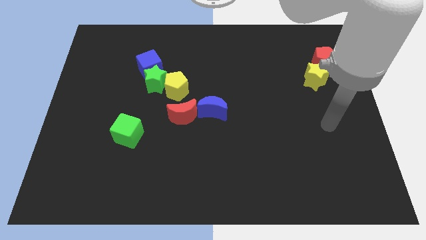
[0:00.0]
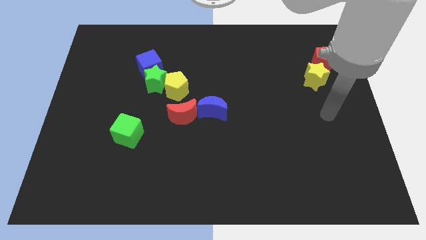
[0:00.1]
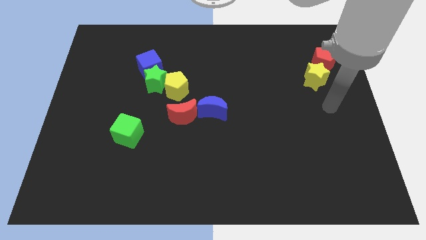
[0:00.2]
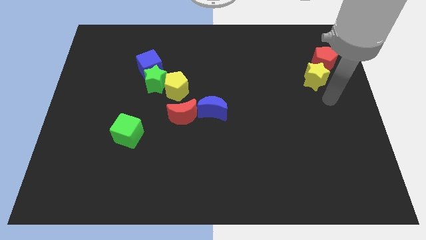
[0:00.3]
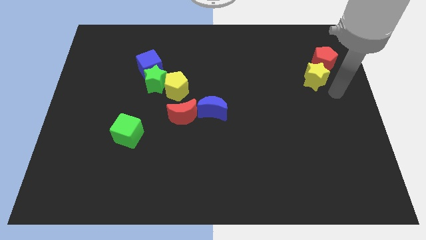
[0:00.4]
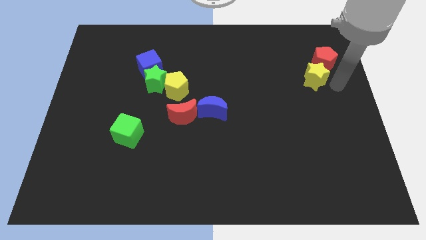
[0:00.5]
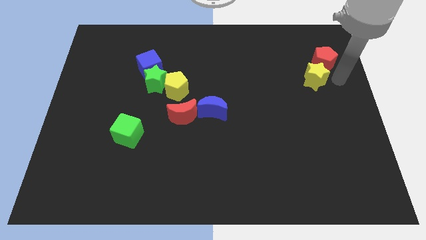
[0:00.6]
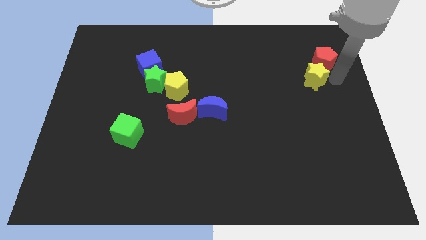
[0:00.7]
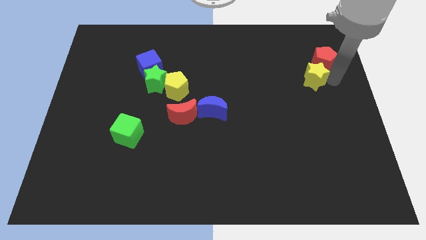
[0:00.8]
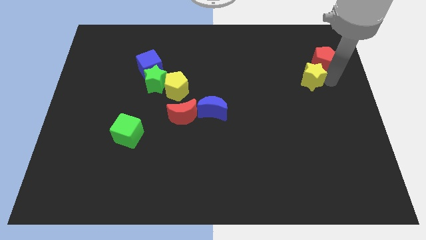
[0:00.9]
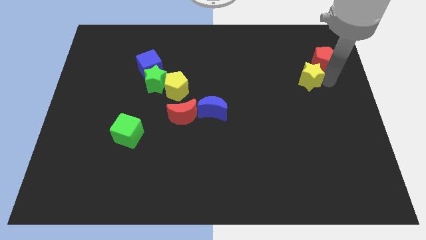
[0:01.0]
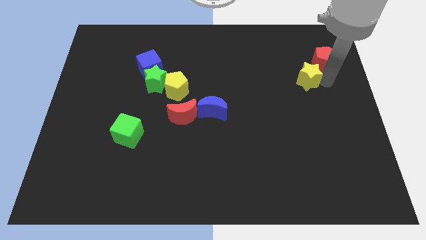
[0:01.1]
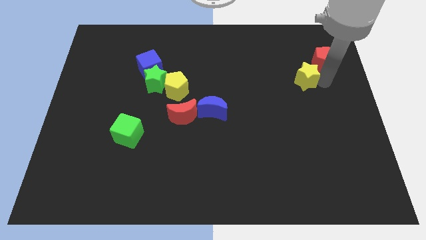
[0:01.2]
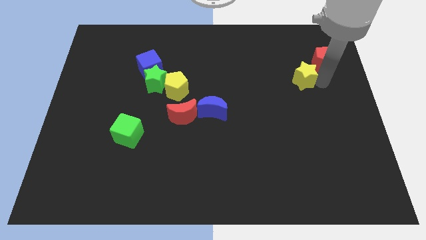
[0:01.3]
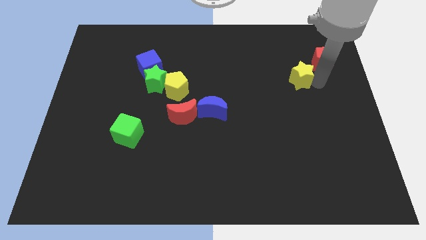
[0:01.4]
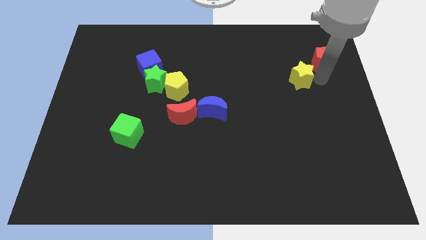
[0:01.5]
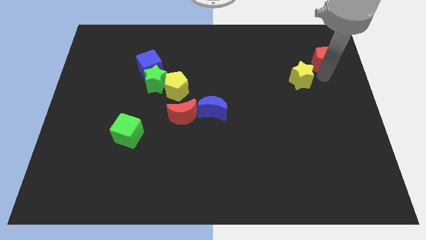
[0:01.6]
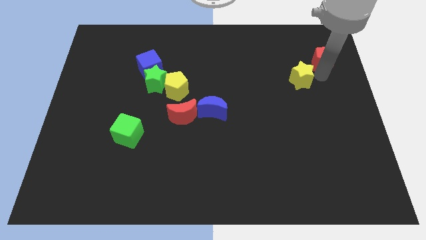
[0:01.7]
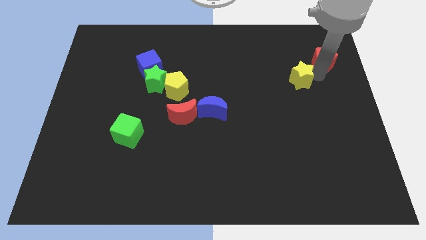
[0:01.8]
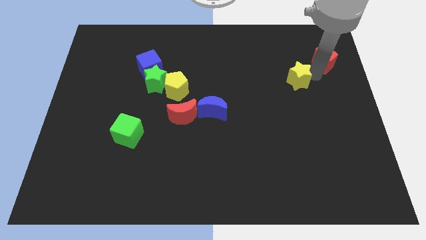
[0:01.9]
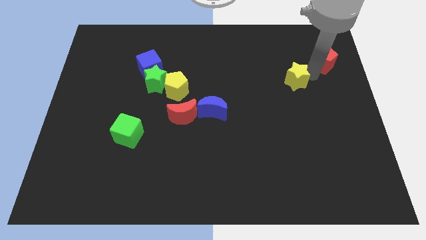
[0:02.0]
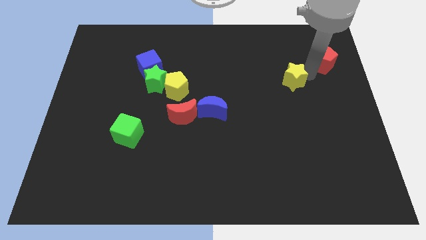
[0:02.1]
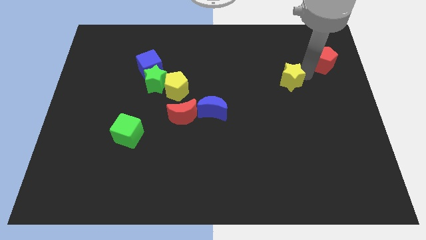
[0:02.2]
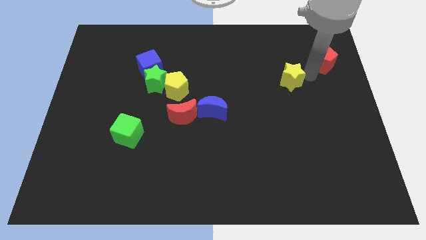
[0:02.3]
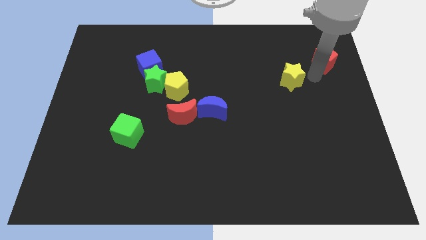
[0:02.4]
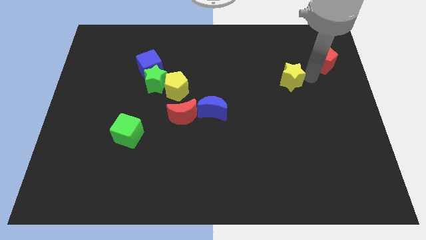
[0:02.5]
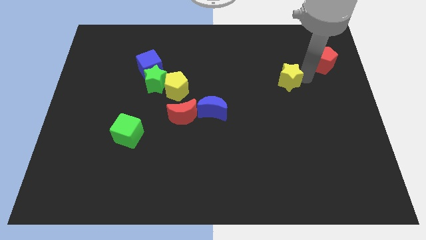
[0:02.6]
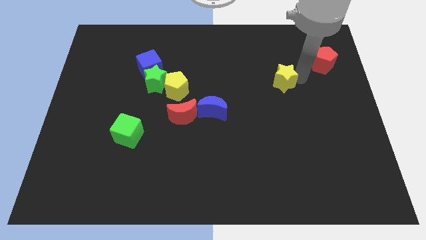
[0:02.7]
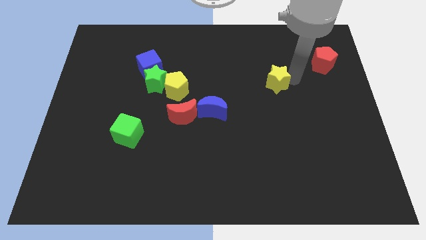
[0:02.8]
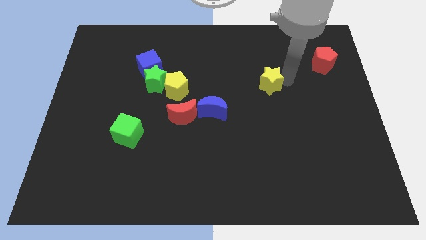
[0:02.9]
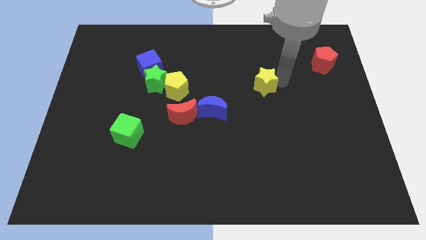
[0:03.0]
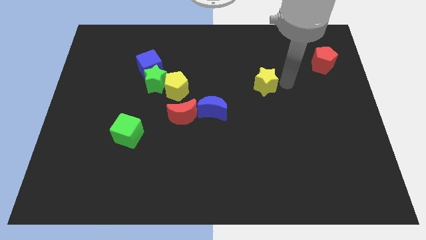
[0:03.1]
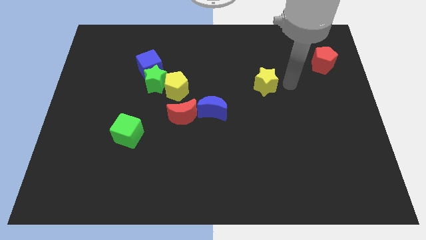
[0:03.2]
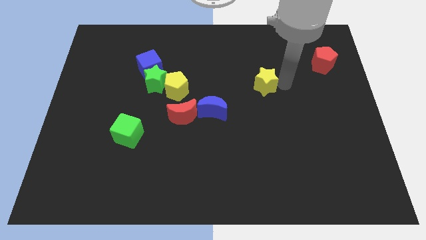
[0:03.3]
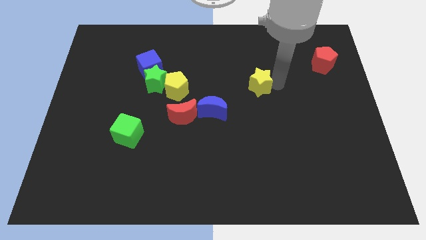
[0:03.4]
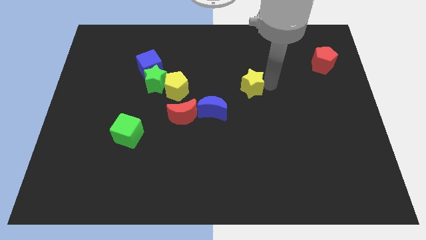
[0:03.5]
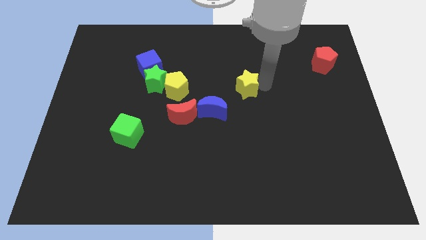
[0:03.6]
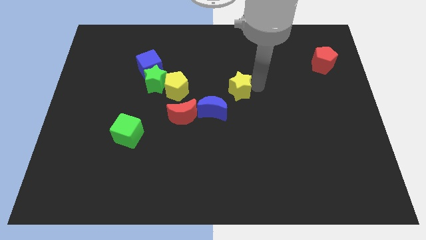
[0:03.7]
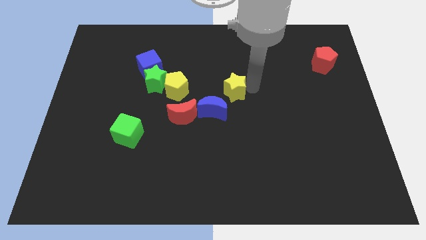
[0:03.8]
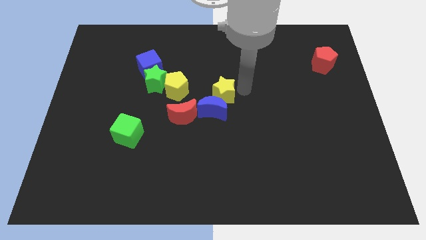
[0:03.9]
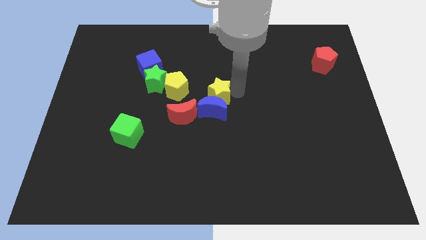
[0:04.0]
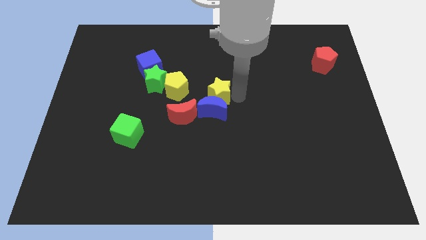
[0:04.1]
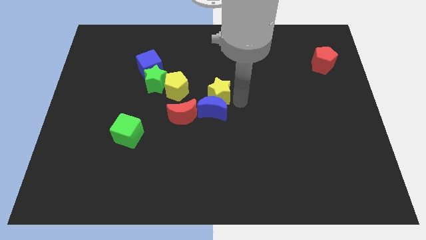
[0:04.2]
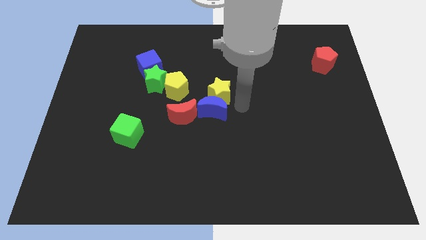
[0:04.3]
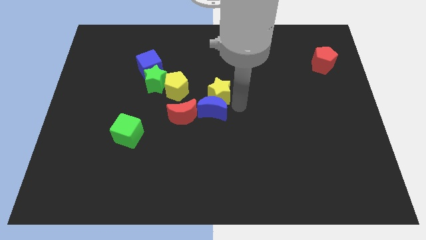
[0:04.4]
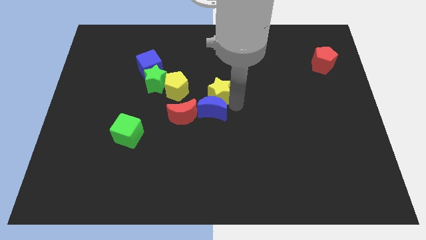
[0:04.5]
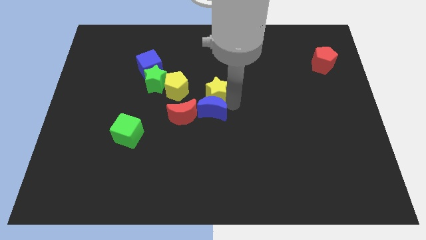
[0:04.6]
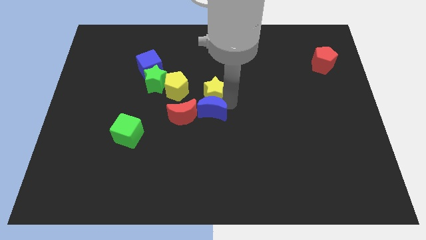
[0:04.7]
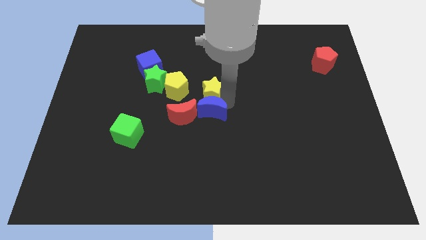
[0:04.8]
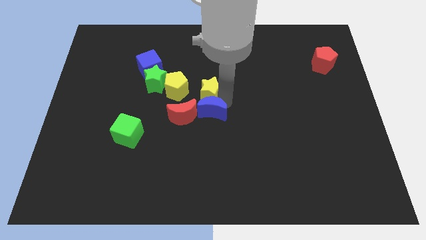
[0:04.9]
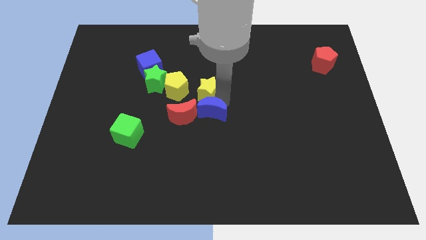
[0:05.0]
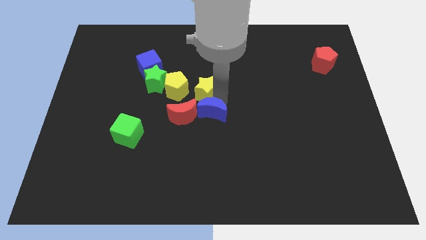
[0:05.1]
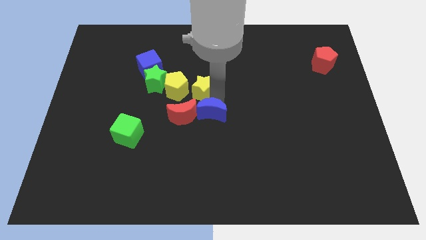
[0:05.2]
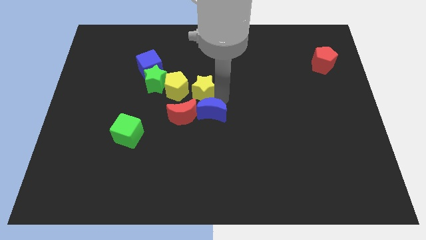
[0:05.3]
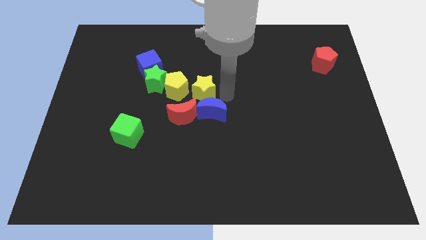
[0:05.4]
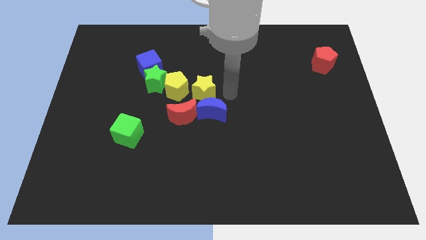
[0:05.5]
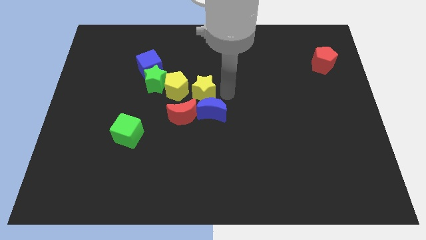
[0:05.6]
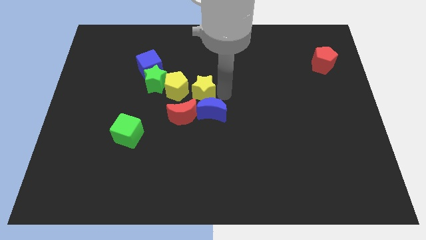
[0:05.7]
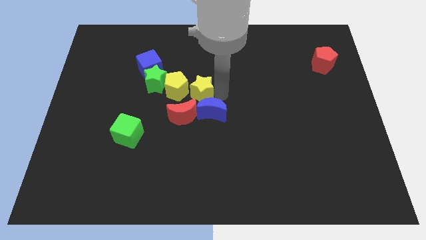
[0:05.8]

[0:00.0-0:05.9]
slide the yellow star next to the yellow pentagon

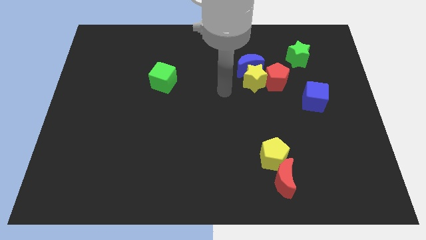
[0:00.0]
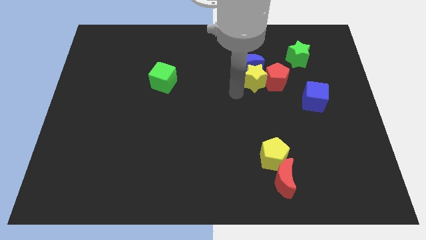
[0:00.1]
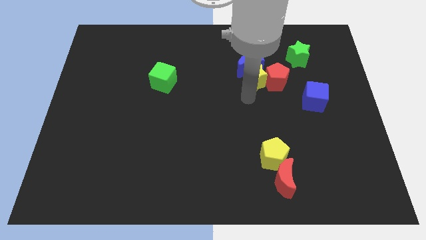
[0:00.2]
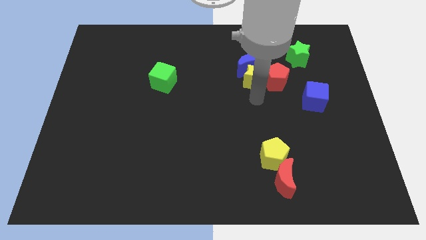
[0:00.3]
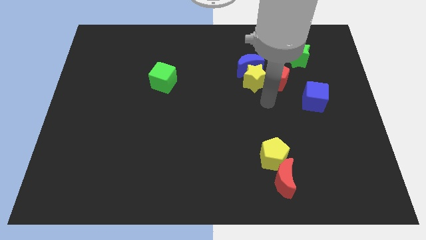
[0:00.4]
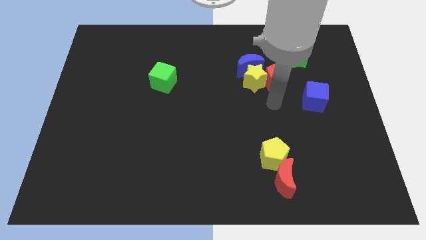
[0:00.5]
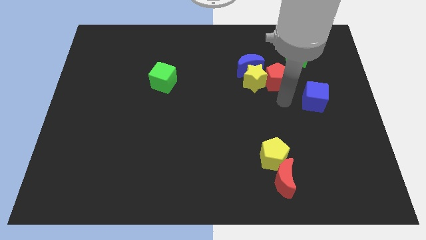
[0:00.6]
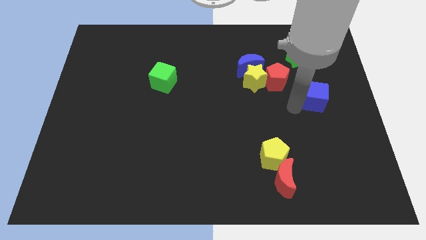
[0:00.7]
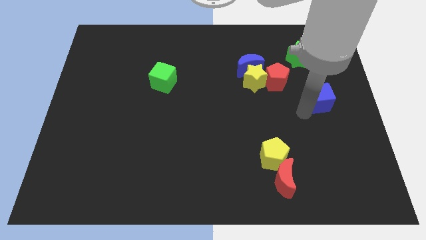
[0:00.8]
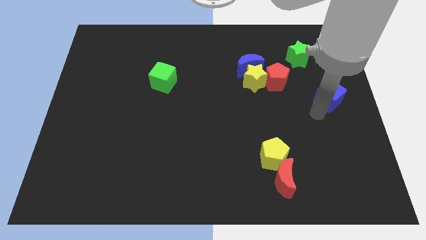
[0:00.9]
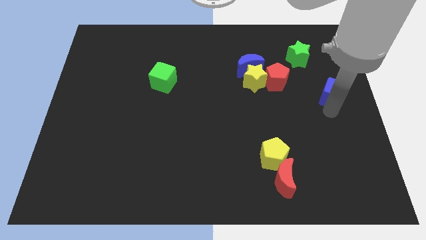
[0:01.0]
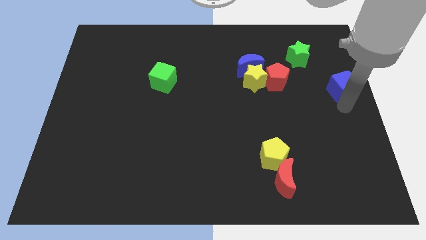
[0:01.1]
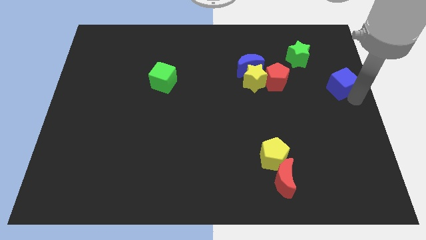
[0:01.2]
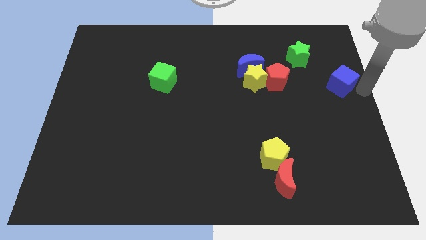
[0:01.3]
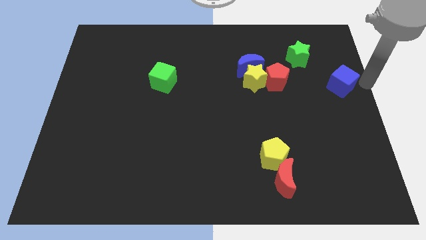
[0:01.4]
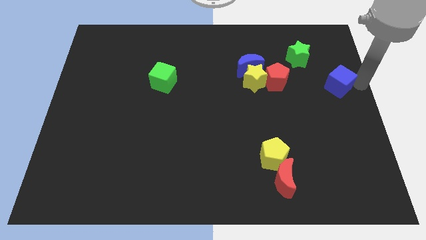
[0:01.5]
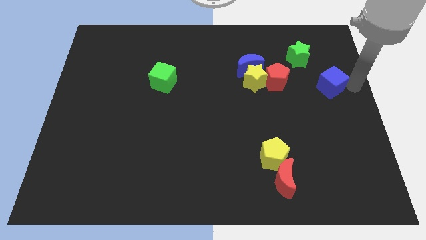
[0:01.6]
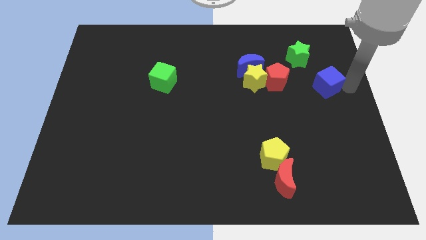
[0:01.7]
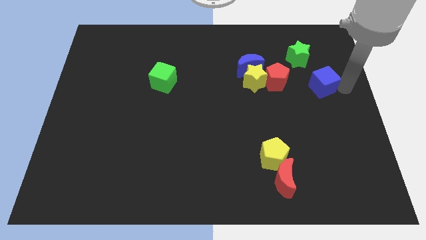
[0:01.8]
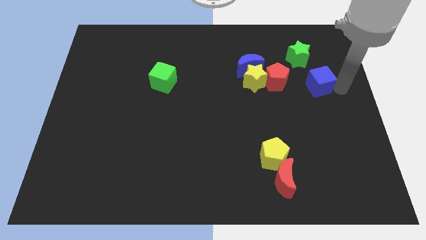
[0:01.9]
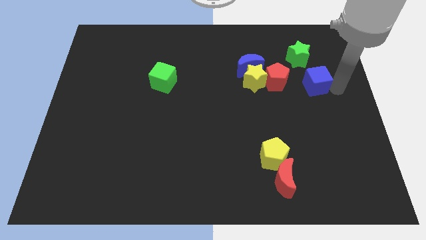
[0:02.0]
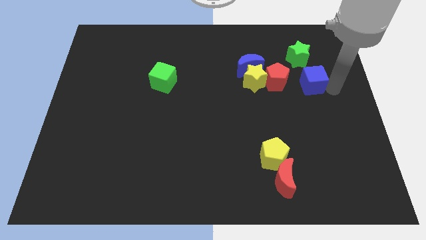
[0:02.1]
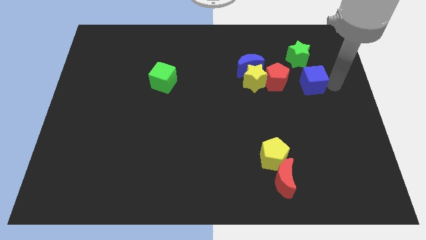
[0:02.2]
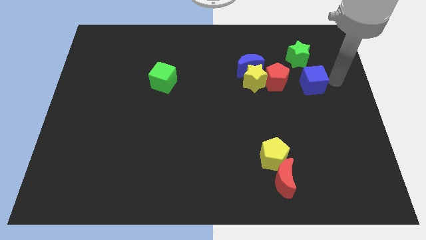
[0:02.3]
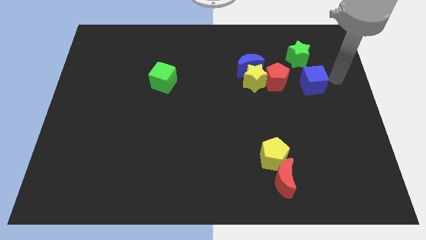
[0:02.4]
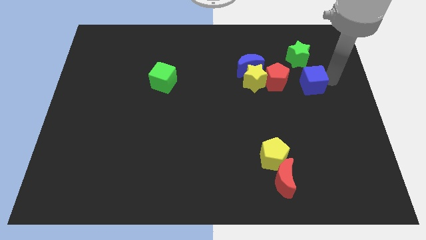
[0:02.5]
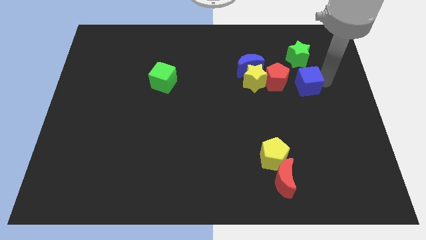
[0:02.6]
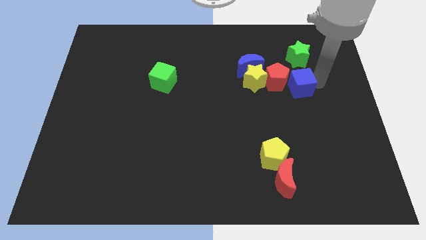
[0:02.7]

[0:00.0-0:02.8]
slide the blue cube to the red pentagon
